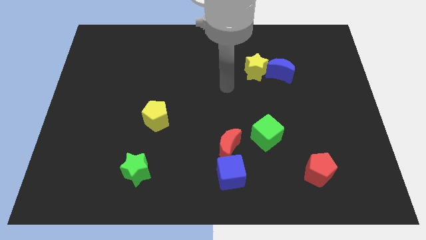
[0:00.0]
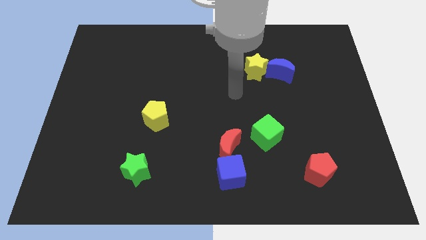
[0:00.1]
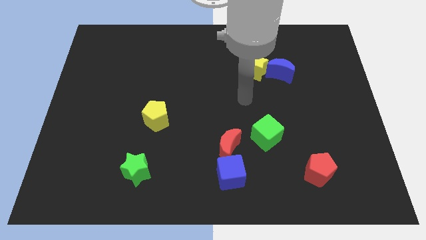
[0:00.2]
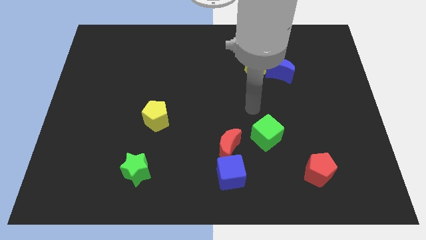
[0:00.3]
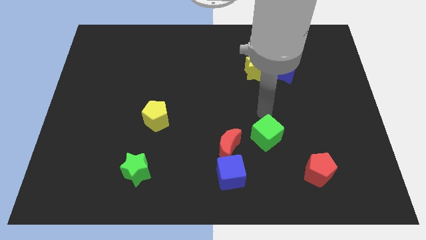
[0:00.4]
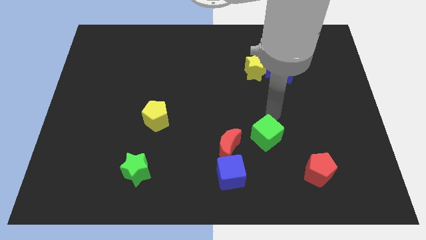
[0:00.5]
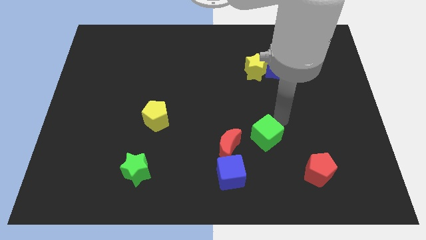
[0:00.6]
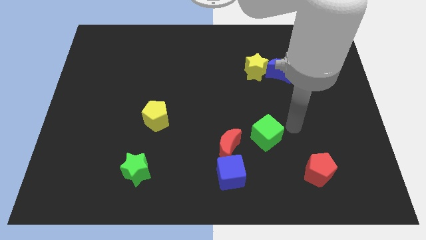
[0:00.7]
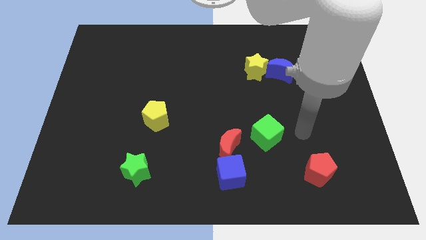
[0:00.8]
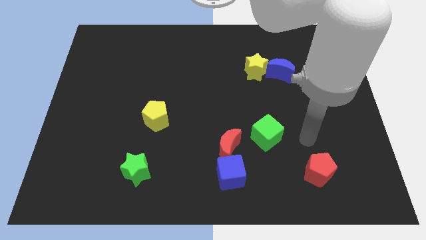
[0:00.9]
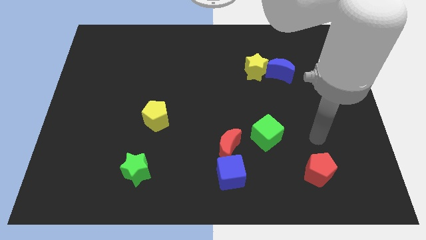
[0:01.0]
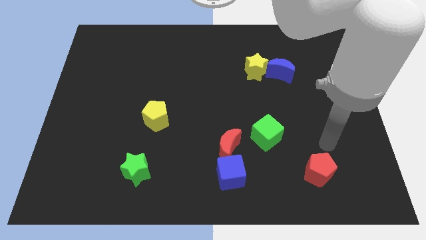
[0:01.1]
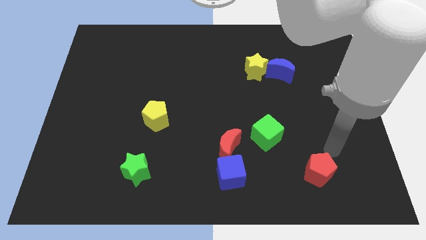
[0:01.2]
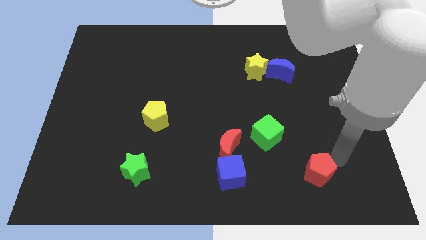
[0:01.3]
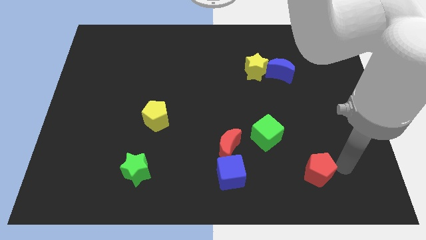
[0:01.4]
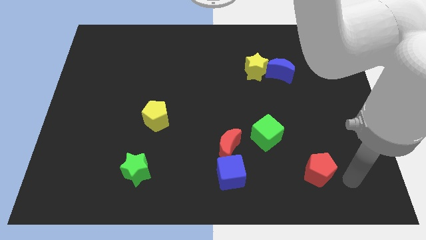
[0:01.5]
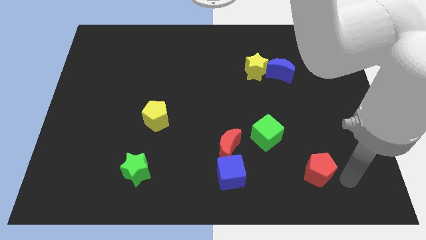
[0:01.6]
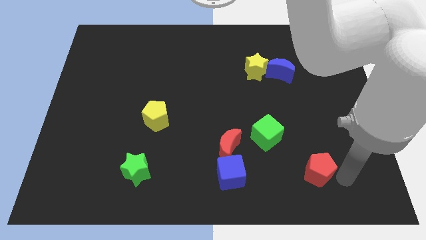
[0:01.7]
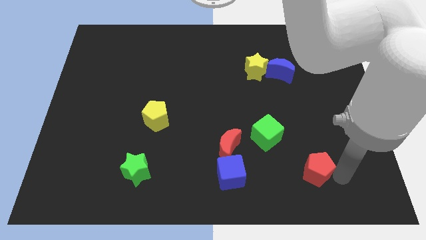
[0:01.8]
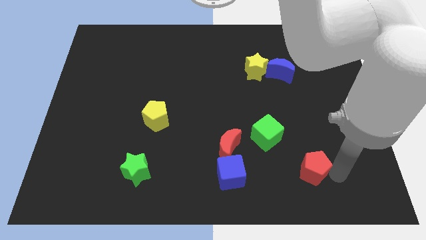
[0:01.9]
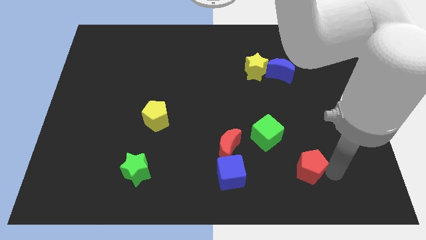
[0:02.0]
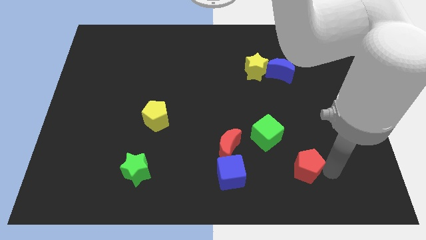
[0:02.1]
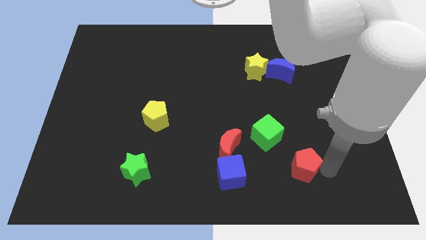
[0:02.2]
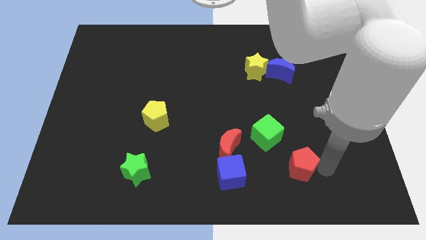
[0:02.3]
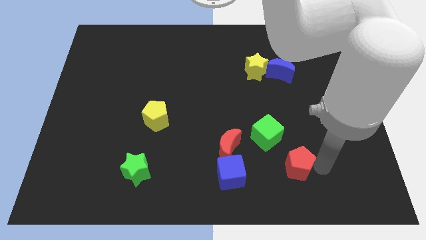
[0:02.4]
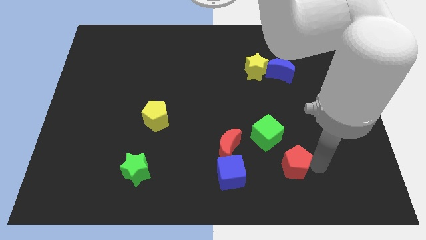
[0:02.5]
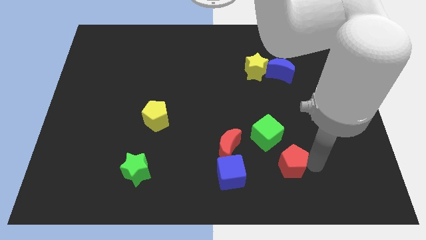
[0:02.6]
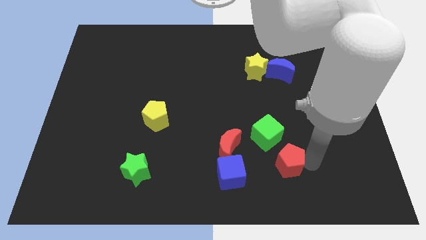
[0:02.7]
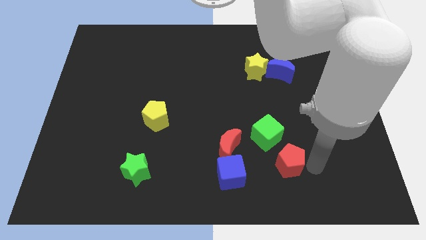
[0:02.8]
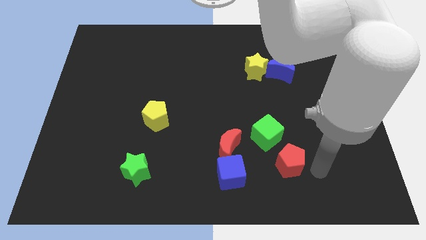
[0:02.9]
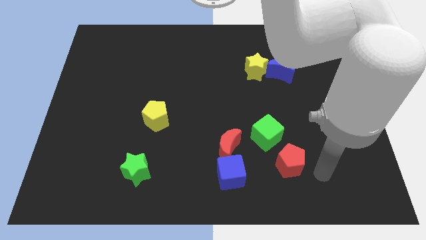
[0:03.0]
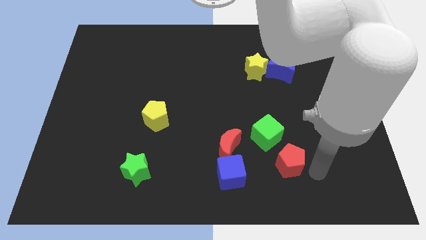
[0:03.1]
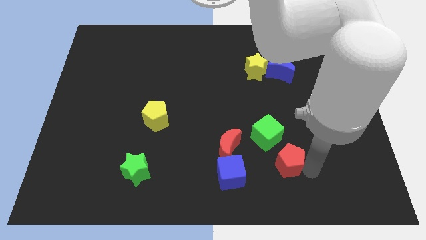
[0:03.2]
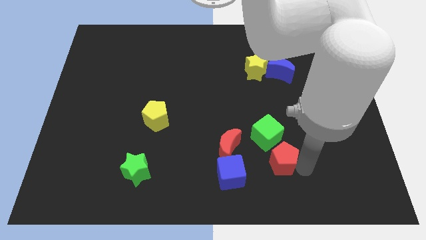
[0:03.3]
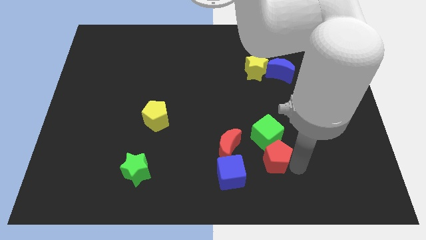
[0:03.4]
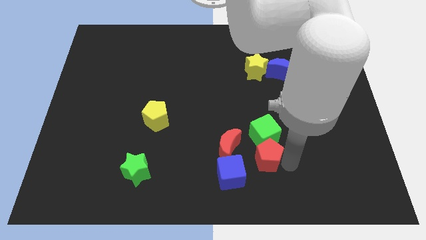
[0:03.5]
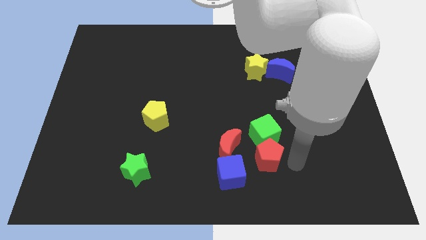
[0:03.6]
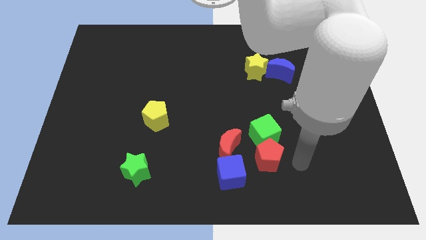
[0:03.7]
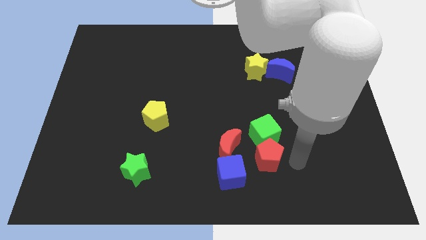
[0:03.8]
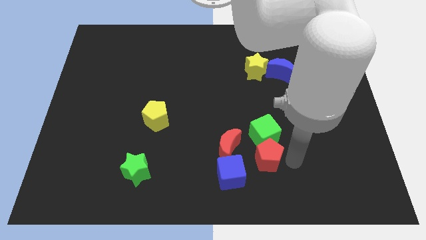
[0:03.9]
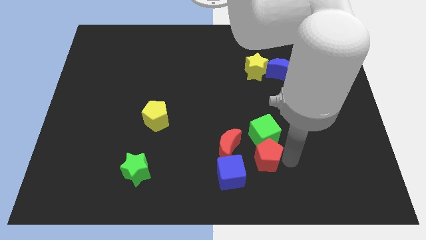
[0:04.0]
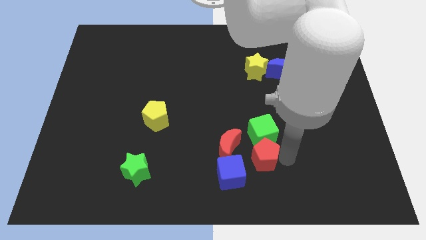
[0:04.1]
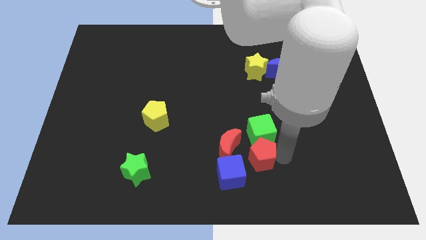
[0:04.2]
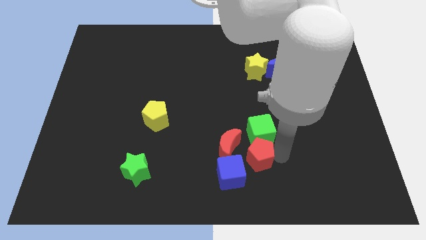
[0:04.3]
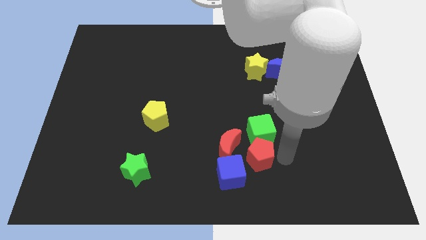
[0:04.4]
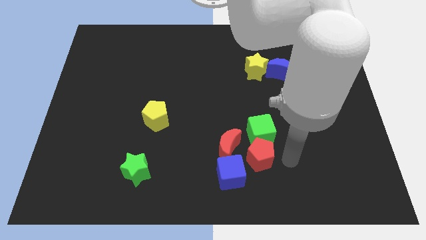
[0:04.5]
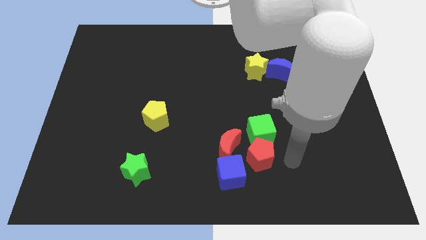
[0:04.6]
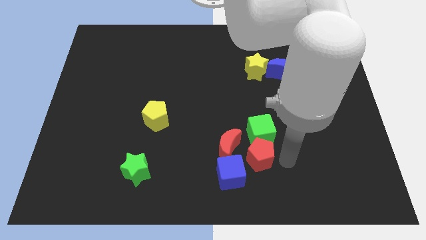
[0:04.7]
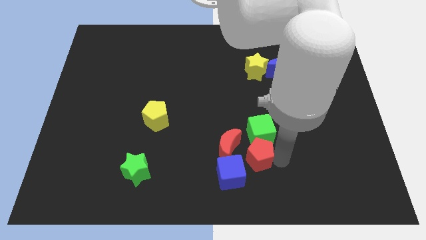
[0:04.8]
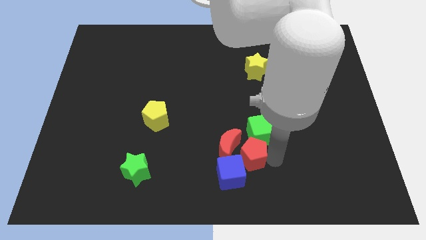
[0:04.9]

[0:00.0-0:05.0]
move the red pentagon towards the red moon

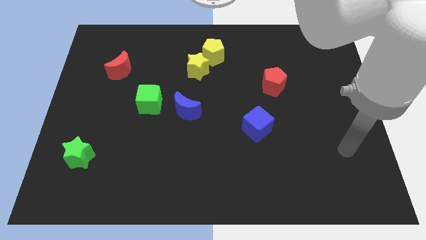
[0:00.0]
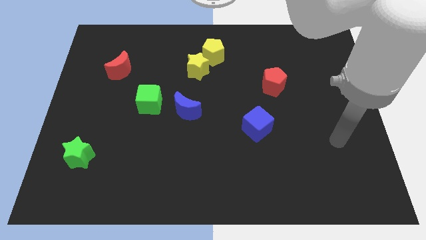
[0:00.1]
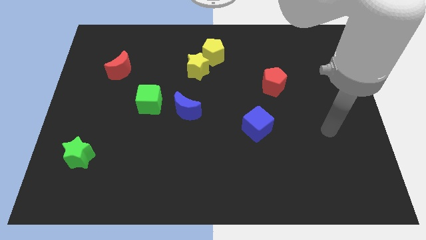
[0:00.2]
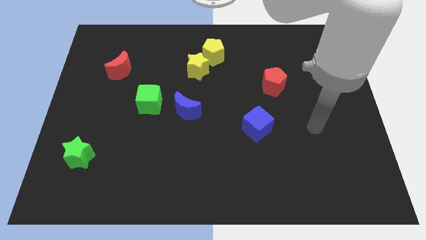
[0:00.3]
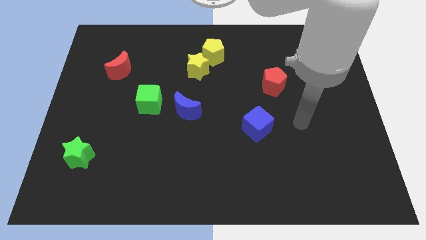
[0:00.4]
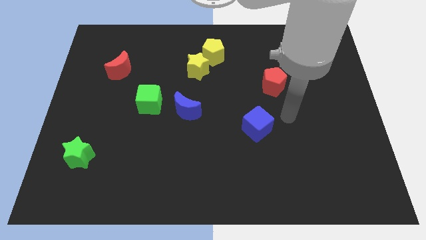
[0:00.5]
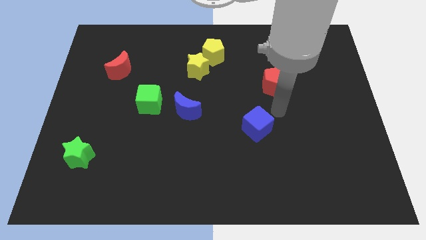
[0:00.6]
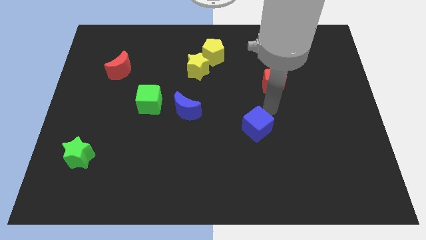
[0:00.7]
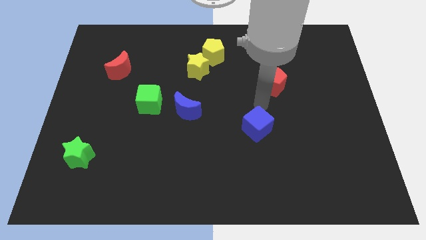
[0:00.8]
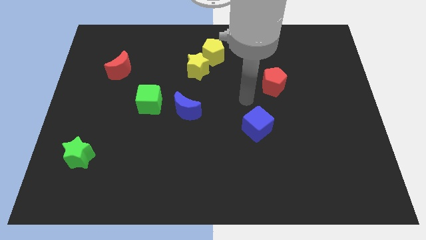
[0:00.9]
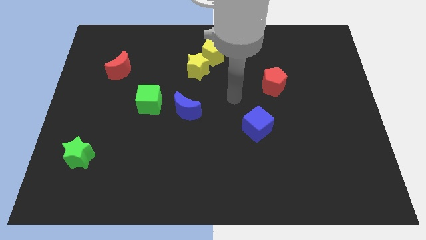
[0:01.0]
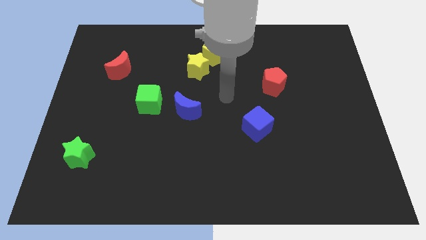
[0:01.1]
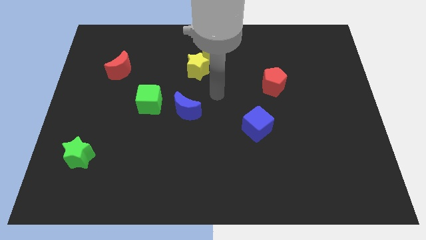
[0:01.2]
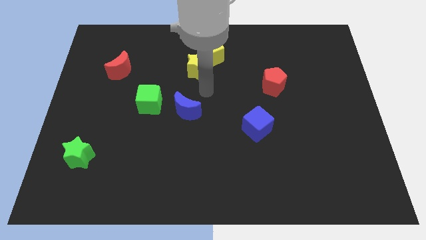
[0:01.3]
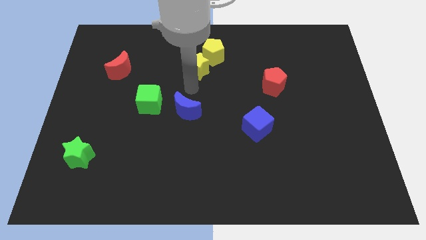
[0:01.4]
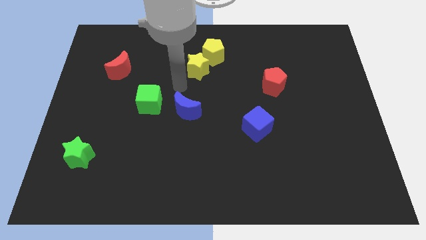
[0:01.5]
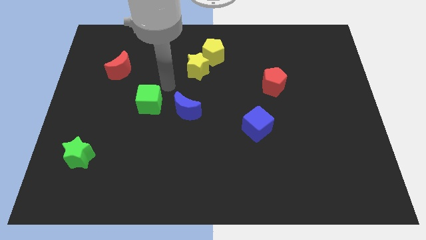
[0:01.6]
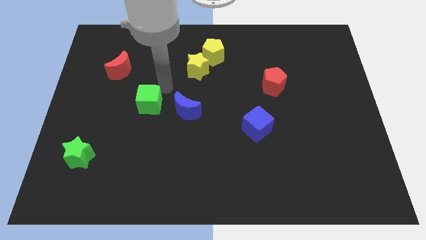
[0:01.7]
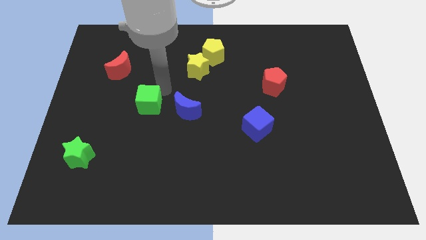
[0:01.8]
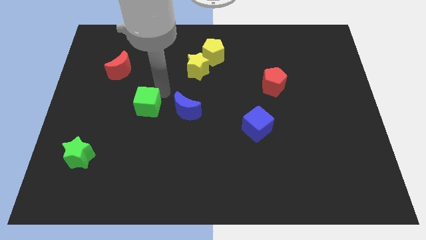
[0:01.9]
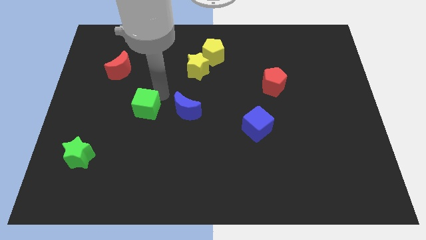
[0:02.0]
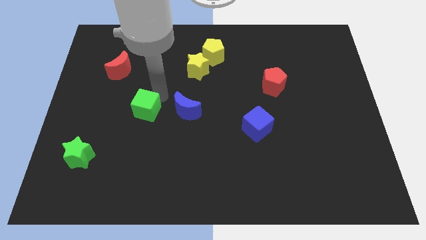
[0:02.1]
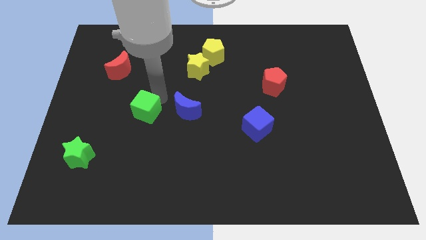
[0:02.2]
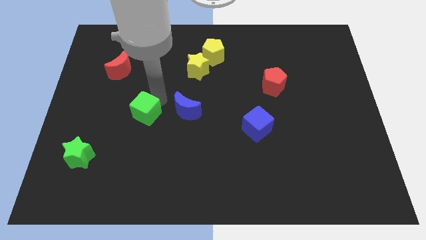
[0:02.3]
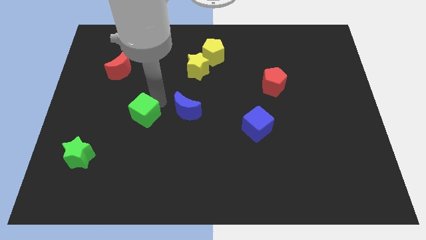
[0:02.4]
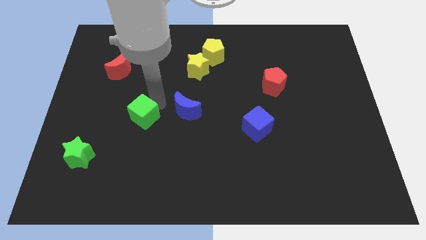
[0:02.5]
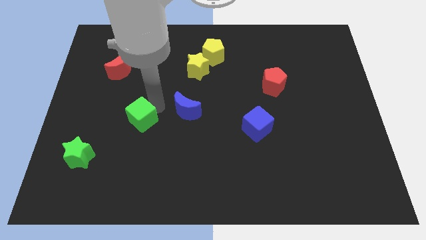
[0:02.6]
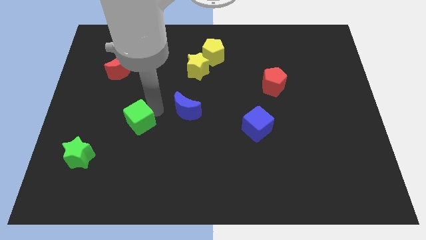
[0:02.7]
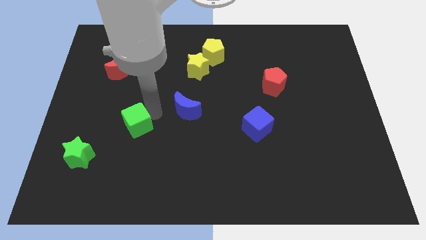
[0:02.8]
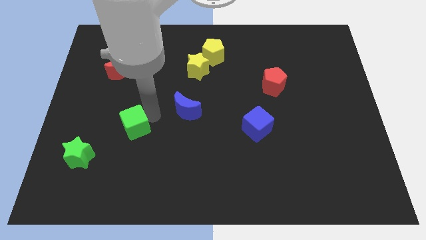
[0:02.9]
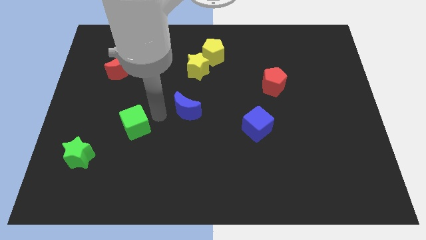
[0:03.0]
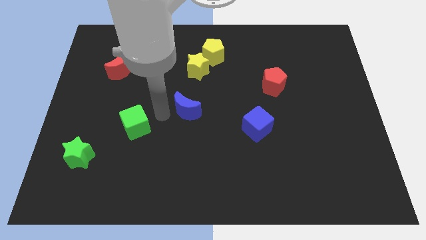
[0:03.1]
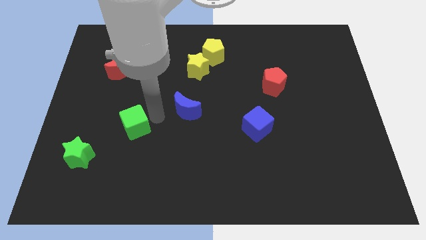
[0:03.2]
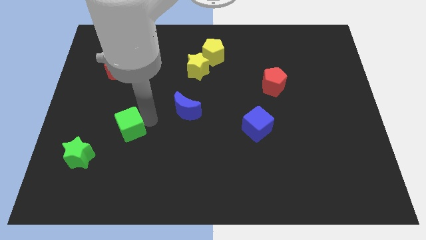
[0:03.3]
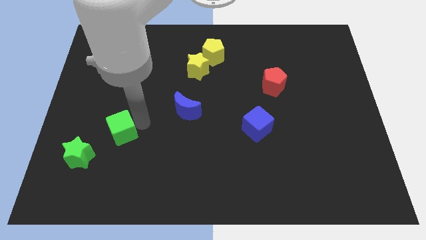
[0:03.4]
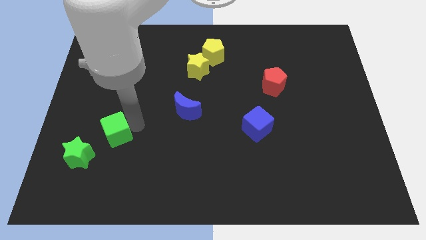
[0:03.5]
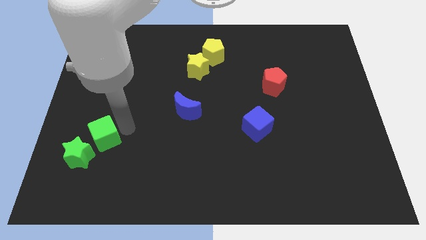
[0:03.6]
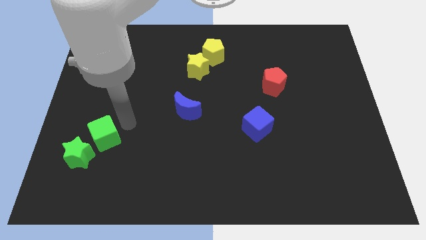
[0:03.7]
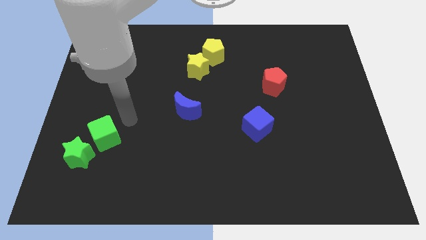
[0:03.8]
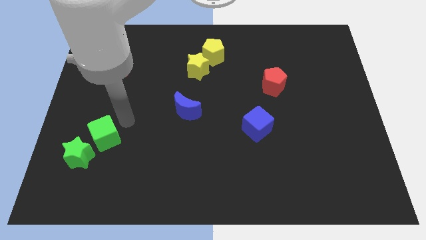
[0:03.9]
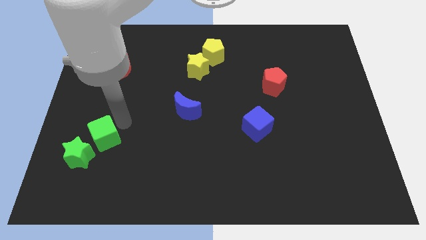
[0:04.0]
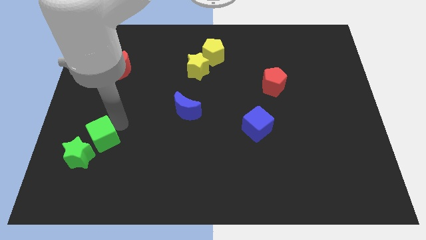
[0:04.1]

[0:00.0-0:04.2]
put the green cube towards the green star
